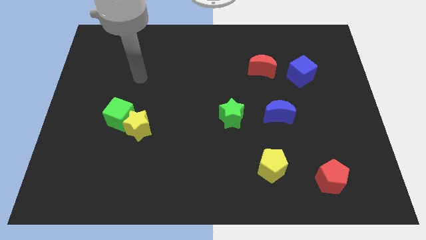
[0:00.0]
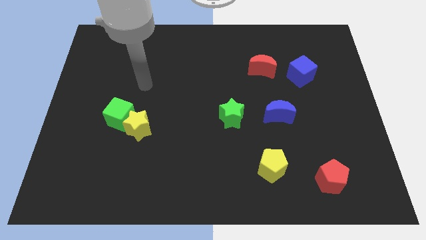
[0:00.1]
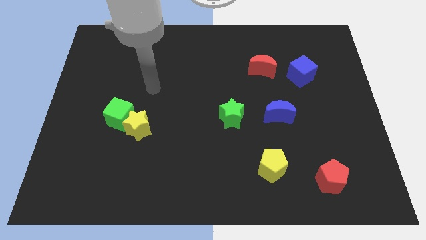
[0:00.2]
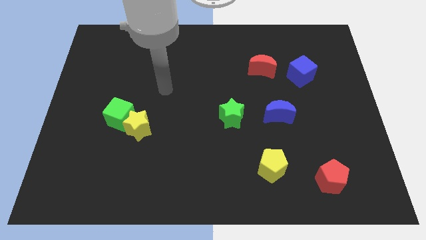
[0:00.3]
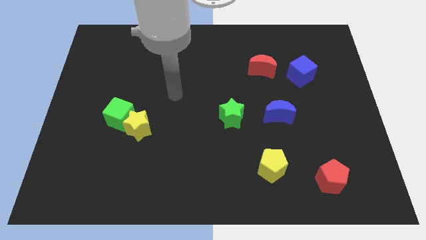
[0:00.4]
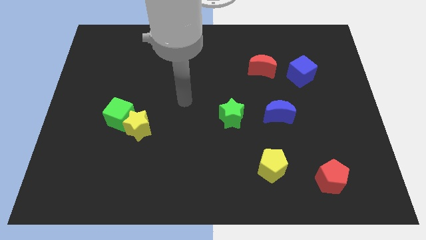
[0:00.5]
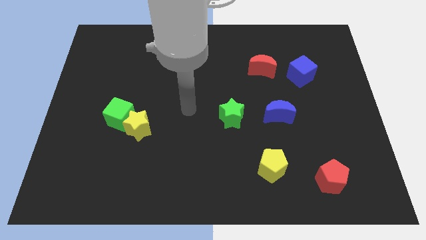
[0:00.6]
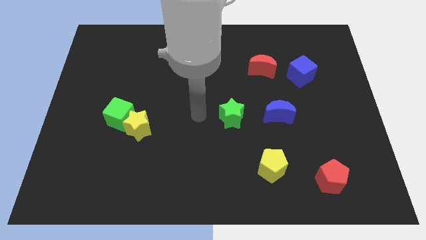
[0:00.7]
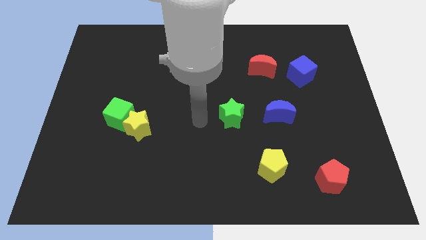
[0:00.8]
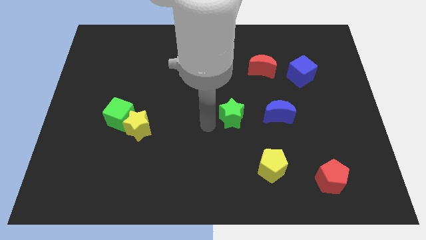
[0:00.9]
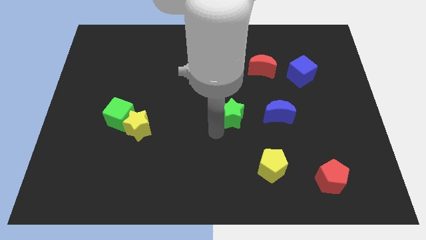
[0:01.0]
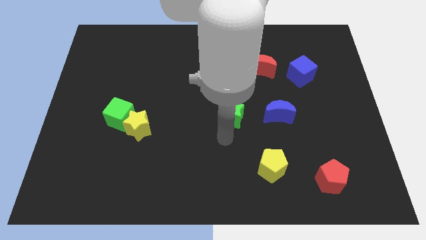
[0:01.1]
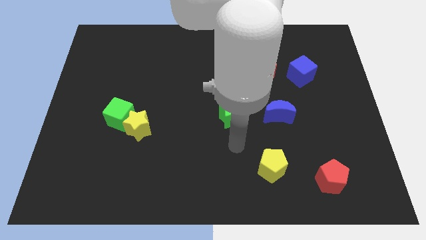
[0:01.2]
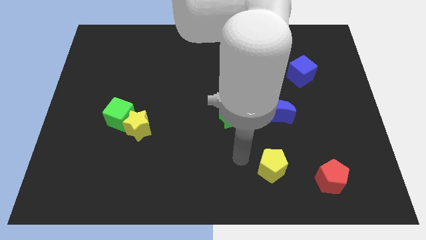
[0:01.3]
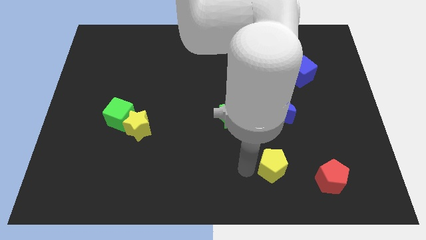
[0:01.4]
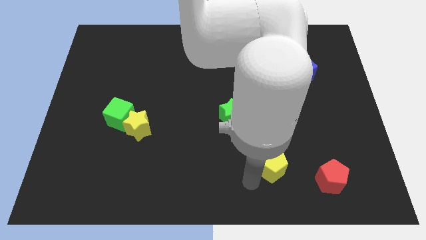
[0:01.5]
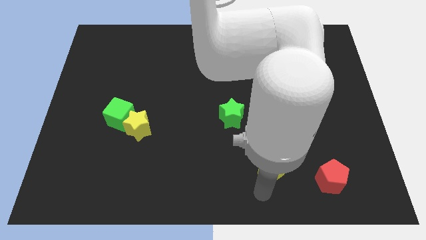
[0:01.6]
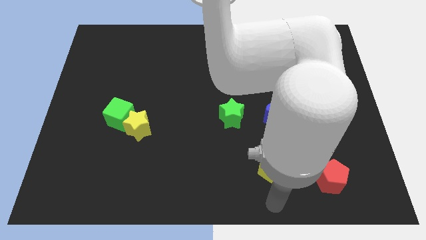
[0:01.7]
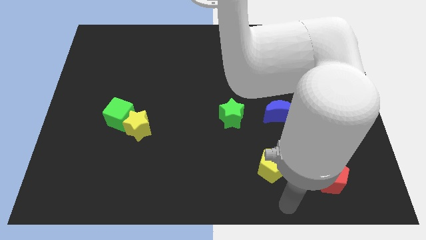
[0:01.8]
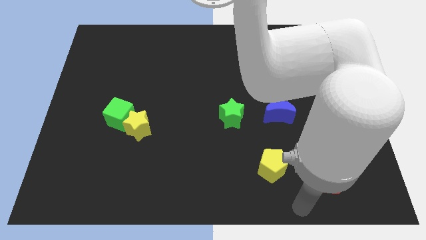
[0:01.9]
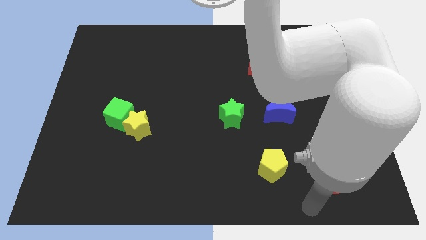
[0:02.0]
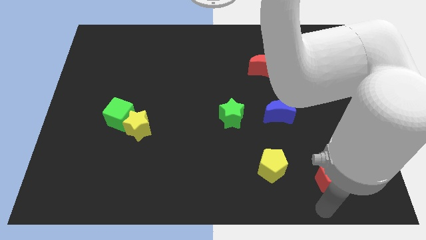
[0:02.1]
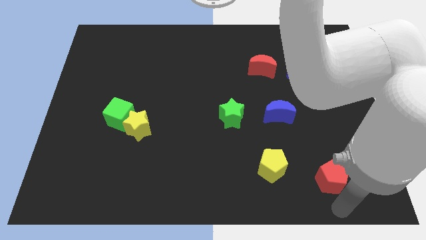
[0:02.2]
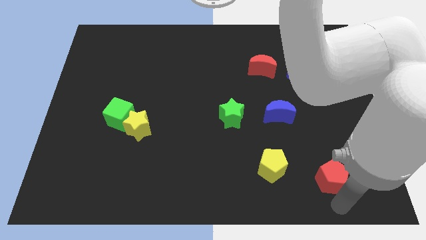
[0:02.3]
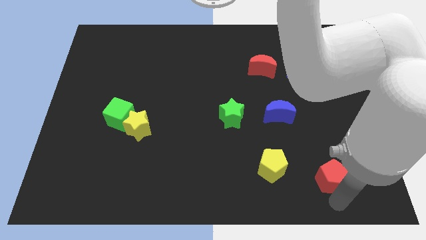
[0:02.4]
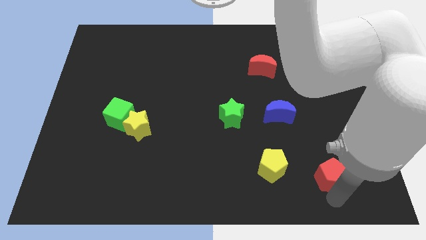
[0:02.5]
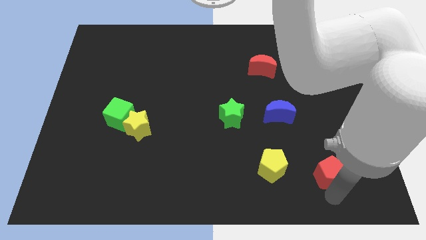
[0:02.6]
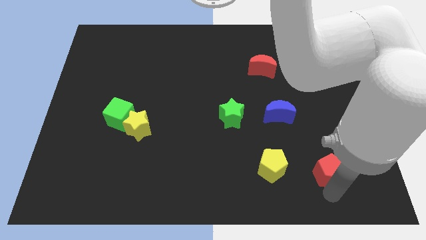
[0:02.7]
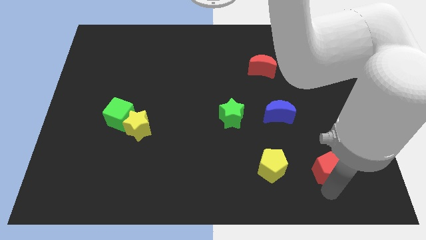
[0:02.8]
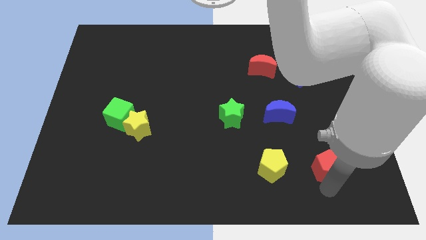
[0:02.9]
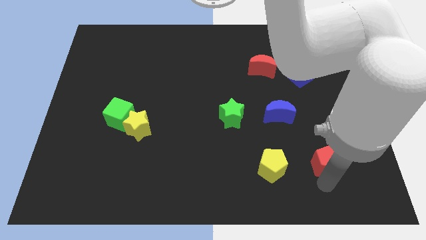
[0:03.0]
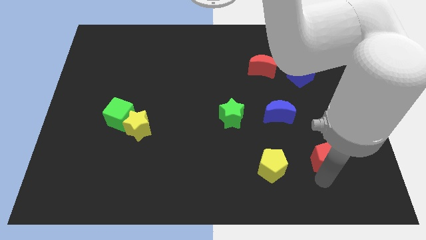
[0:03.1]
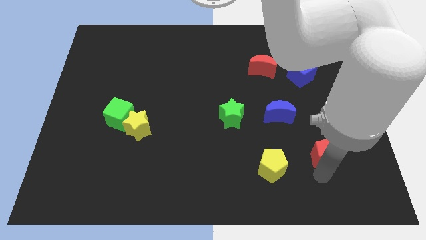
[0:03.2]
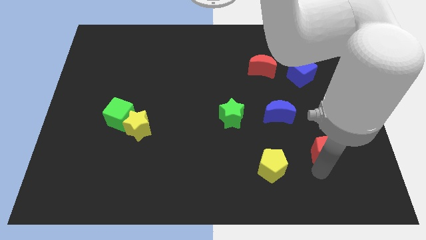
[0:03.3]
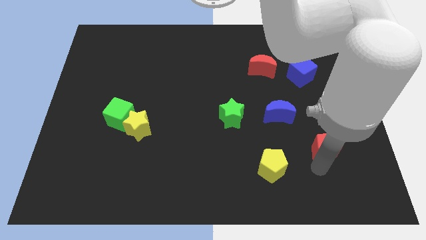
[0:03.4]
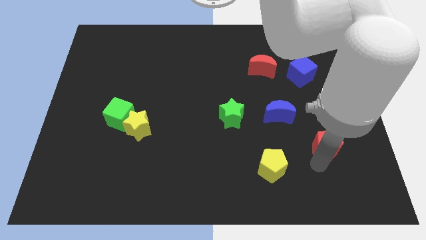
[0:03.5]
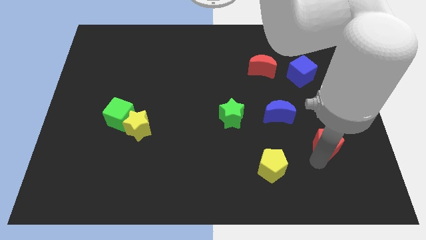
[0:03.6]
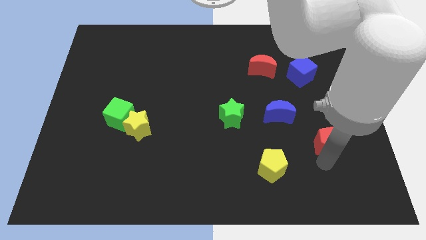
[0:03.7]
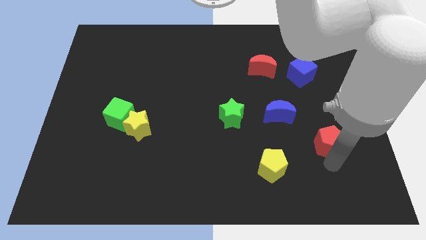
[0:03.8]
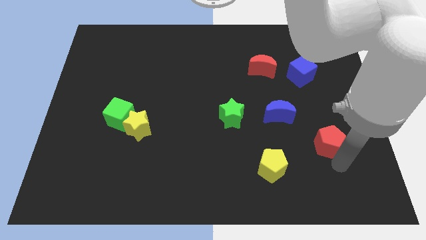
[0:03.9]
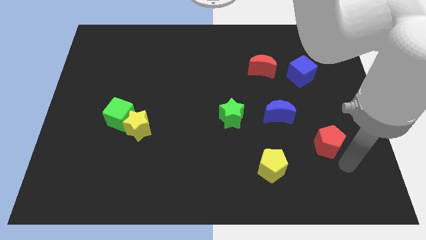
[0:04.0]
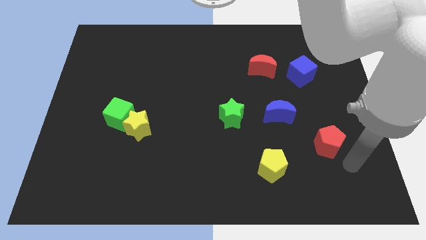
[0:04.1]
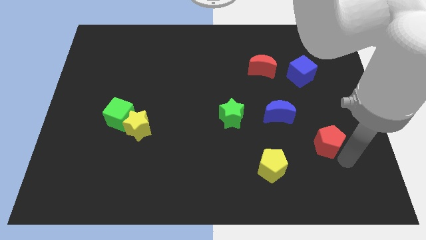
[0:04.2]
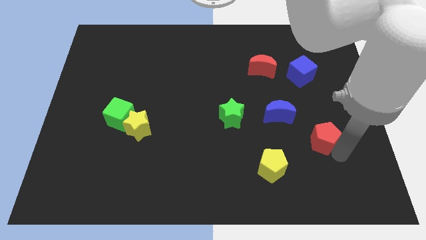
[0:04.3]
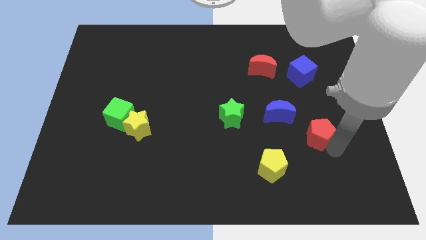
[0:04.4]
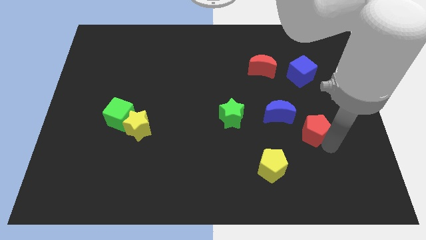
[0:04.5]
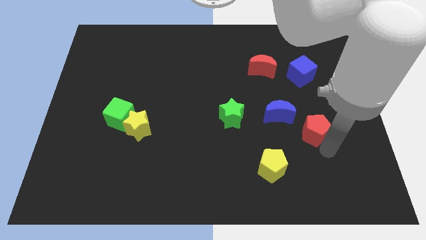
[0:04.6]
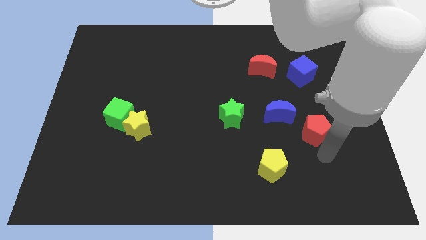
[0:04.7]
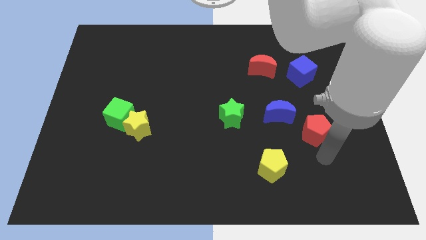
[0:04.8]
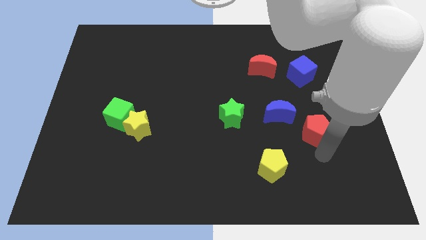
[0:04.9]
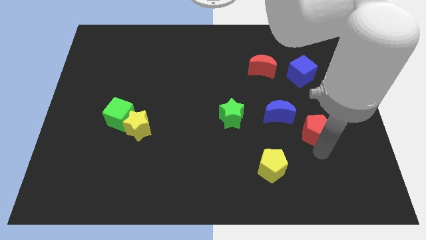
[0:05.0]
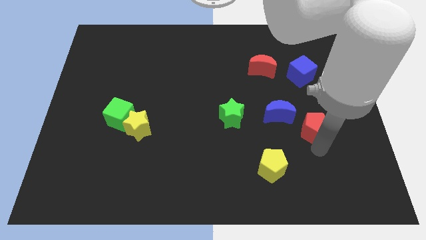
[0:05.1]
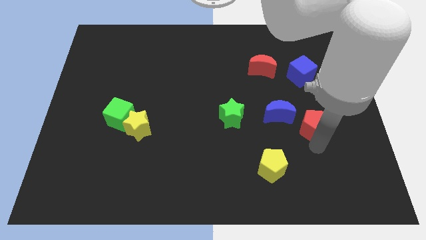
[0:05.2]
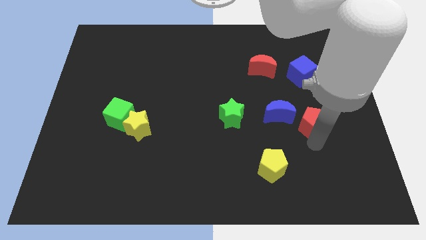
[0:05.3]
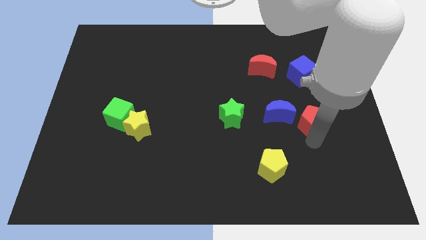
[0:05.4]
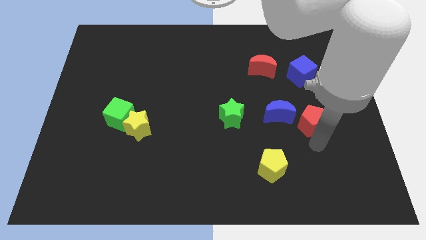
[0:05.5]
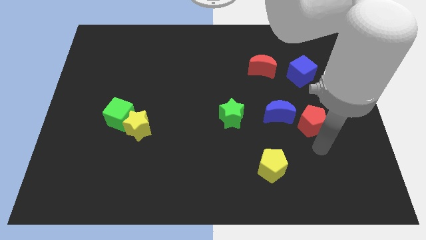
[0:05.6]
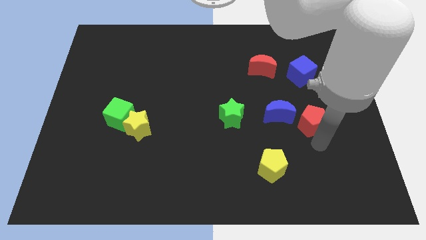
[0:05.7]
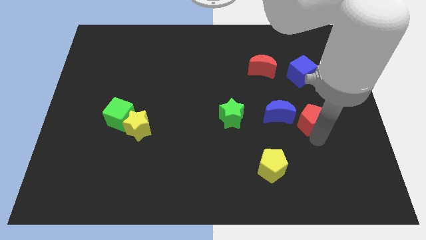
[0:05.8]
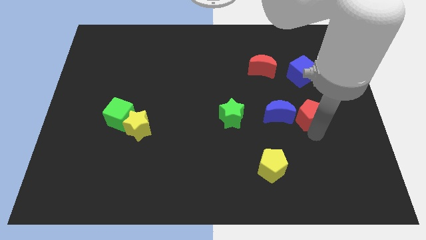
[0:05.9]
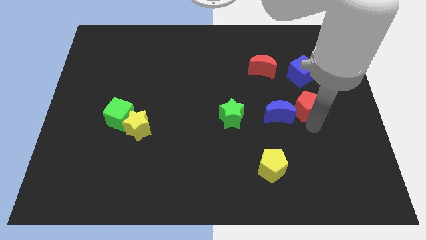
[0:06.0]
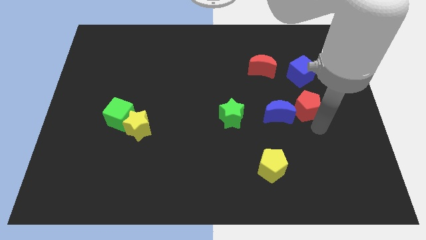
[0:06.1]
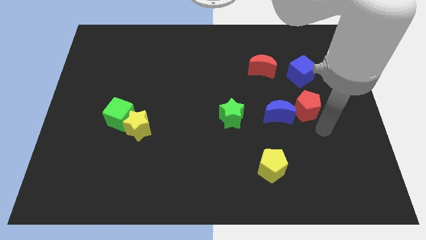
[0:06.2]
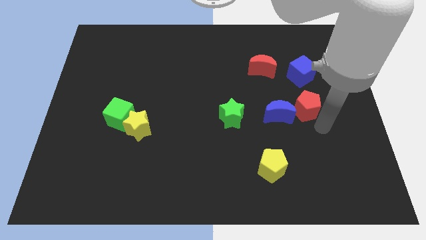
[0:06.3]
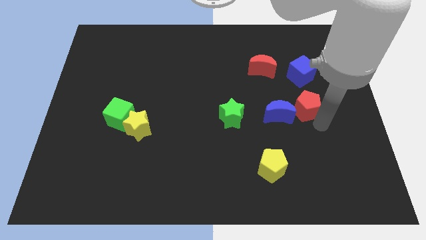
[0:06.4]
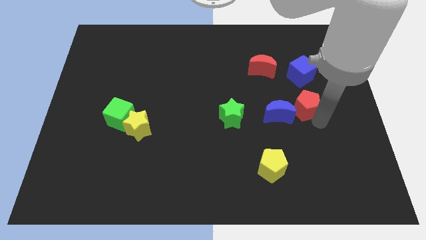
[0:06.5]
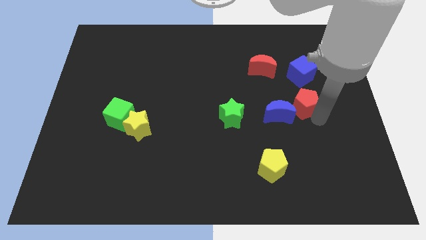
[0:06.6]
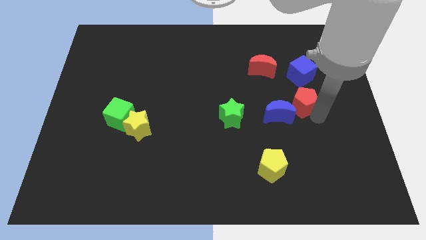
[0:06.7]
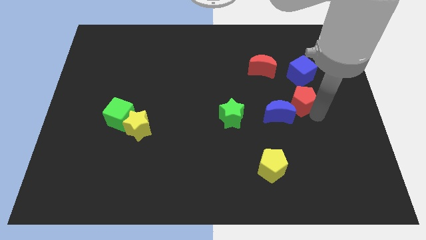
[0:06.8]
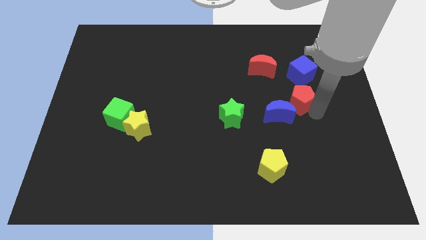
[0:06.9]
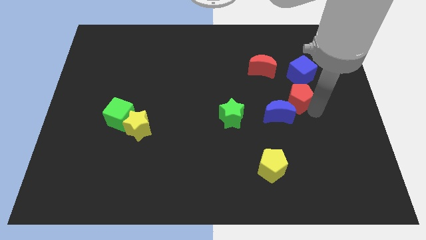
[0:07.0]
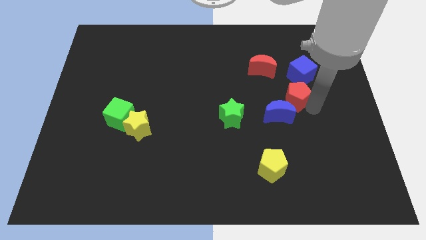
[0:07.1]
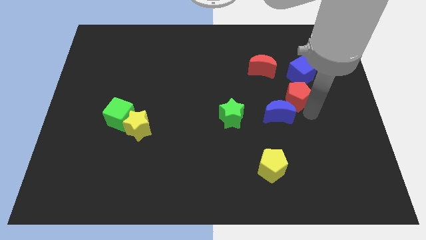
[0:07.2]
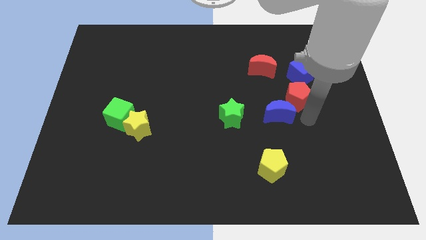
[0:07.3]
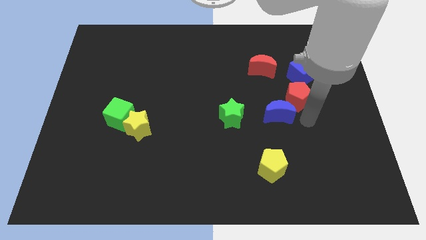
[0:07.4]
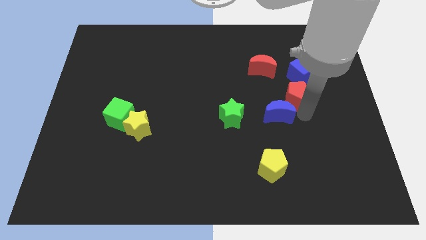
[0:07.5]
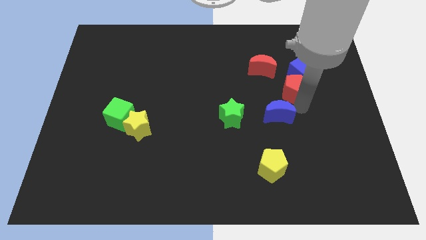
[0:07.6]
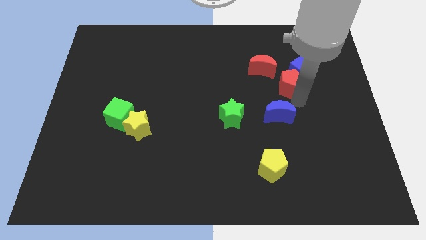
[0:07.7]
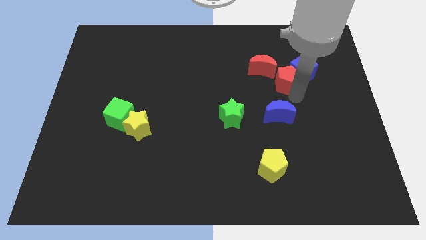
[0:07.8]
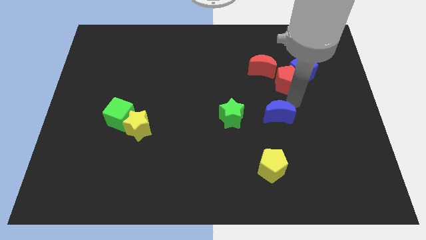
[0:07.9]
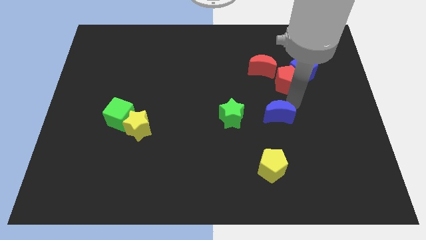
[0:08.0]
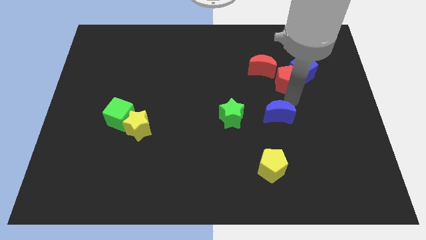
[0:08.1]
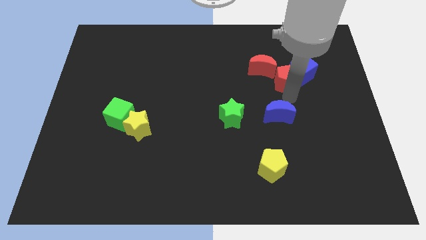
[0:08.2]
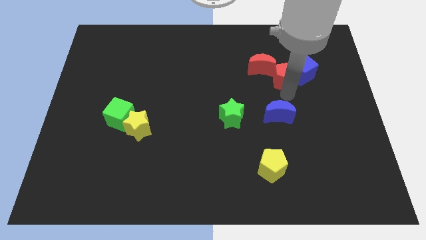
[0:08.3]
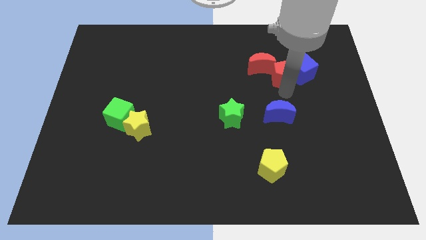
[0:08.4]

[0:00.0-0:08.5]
move the red pentagon to the top left of the blue cube
